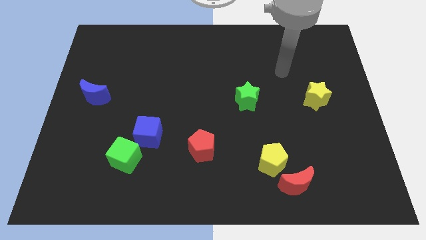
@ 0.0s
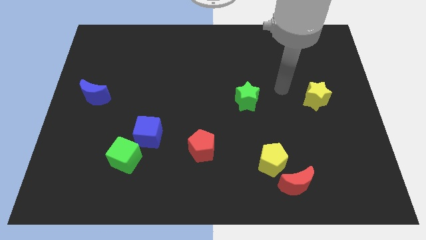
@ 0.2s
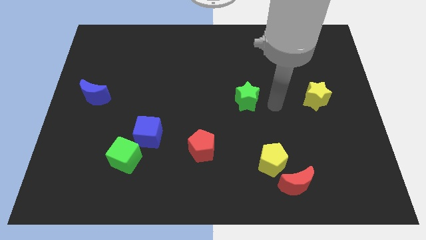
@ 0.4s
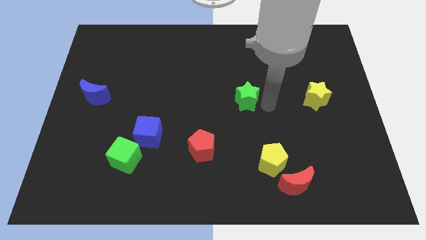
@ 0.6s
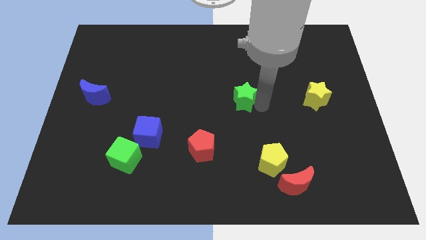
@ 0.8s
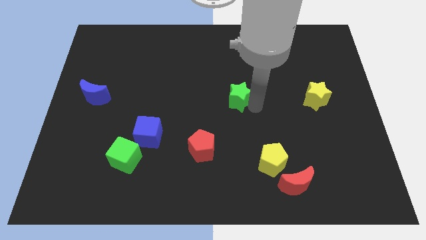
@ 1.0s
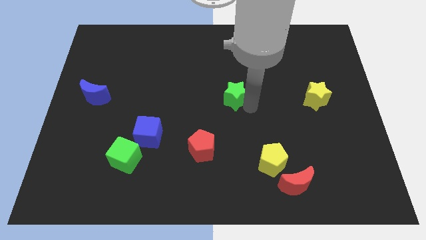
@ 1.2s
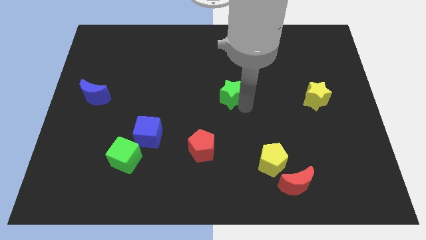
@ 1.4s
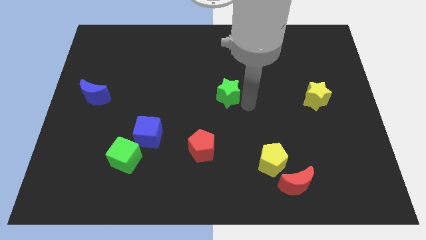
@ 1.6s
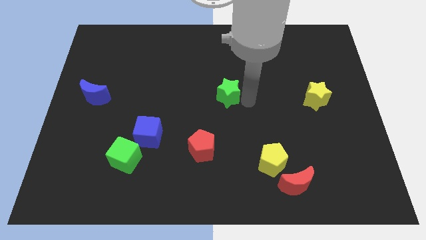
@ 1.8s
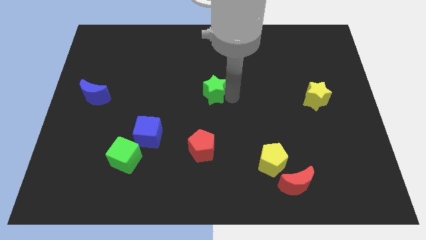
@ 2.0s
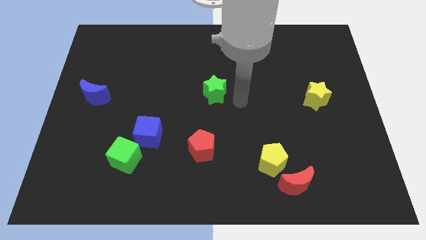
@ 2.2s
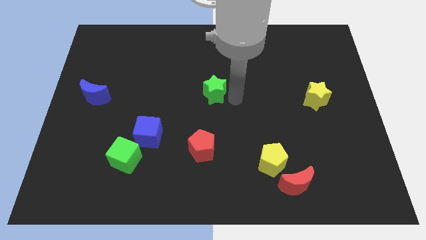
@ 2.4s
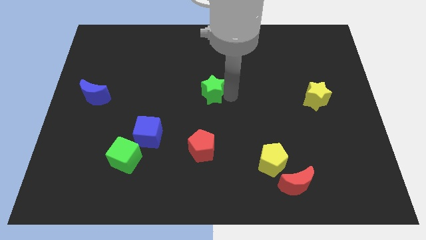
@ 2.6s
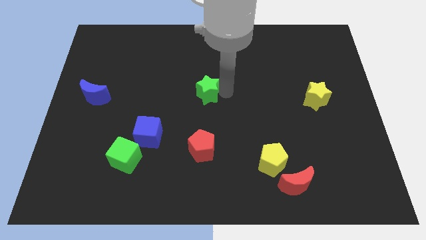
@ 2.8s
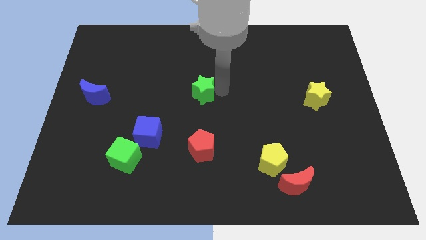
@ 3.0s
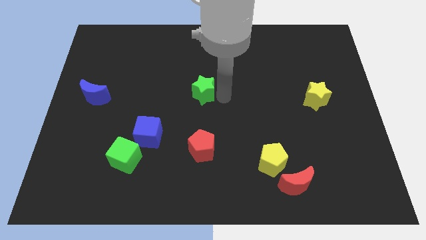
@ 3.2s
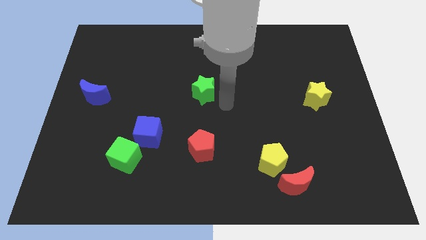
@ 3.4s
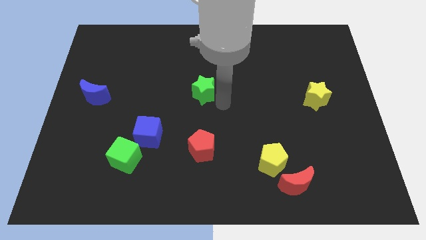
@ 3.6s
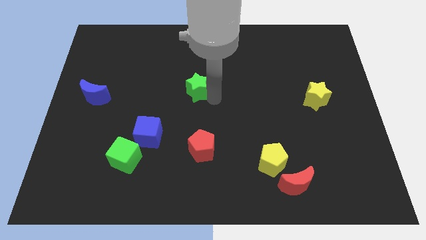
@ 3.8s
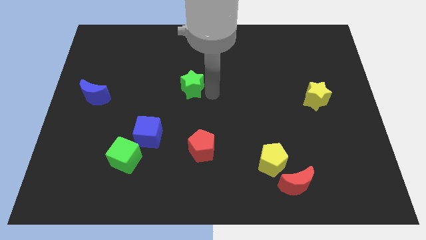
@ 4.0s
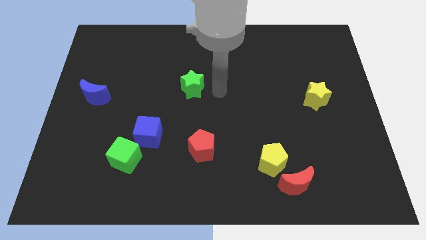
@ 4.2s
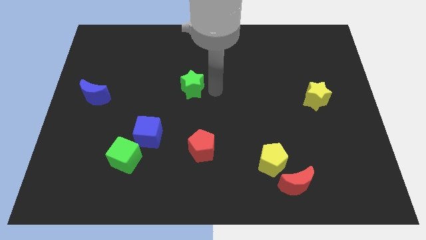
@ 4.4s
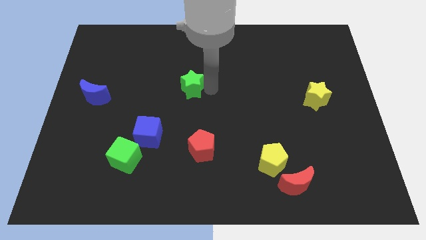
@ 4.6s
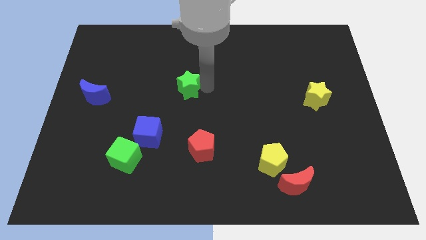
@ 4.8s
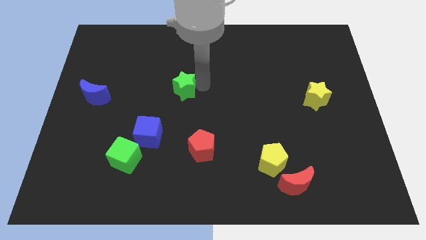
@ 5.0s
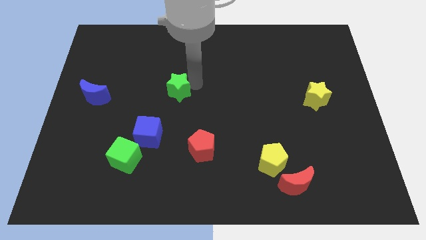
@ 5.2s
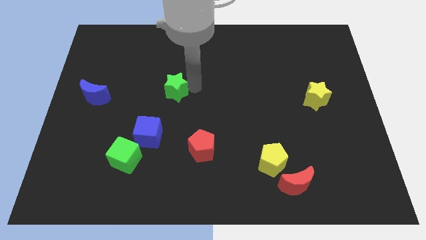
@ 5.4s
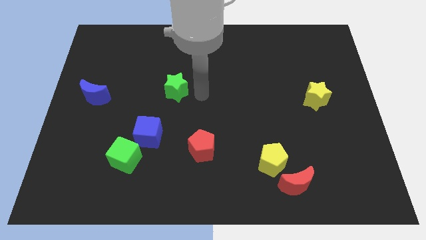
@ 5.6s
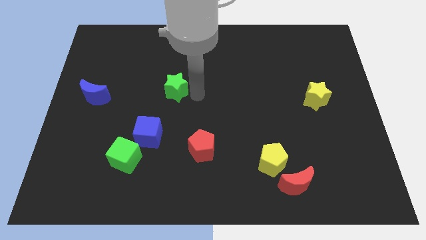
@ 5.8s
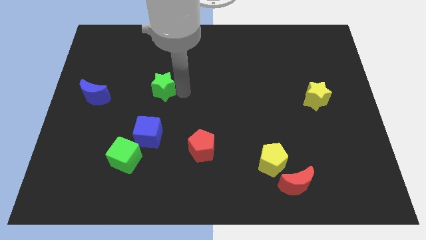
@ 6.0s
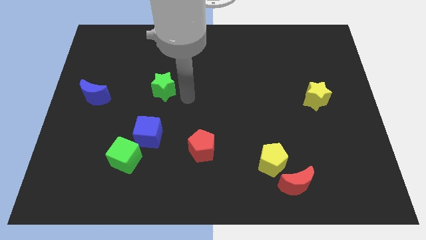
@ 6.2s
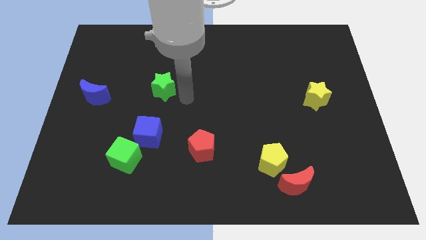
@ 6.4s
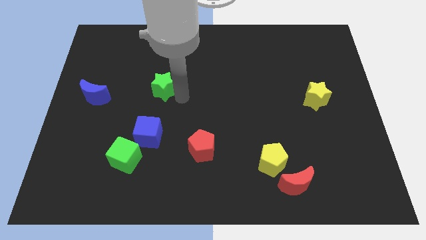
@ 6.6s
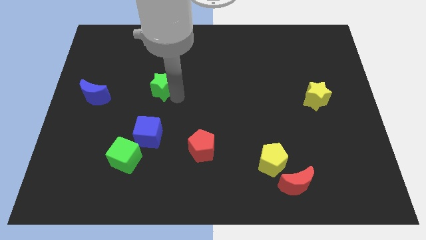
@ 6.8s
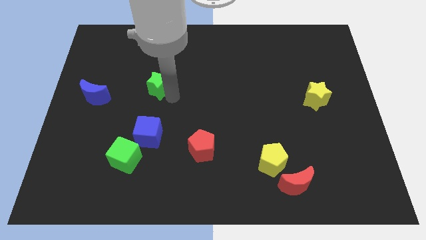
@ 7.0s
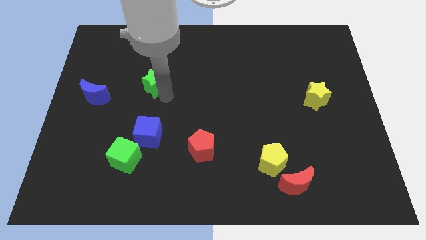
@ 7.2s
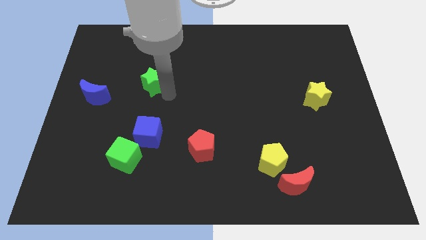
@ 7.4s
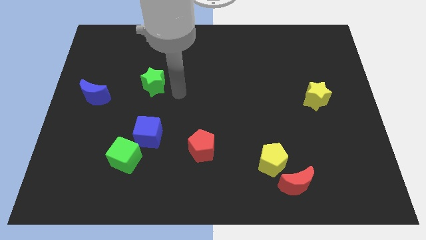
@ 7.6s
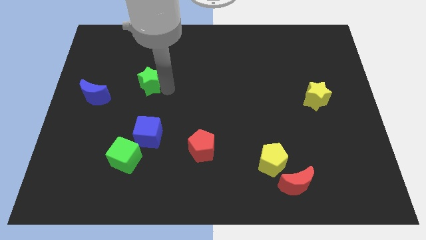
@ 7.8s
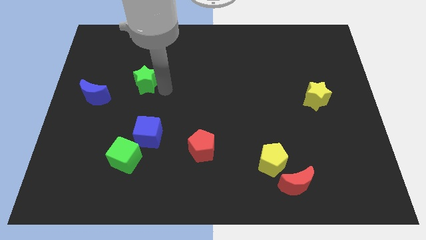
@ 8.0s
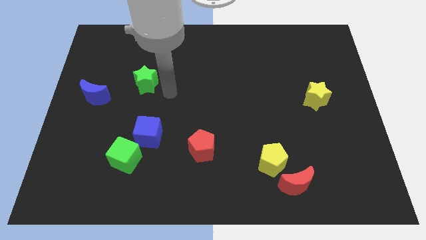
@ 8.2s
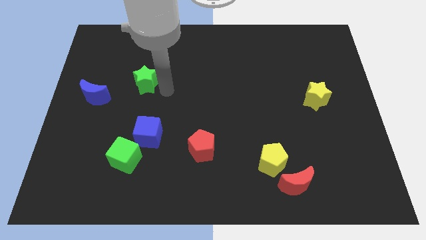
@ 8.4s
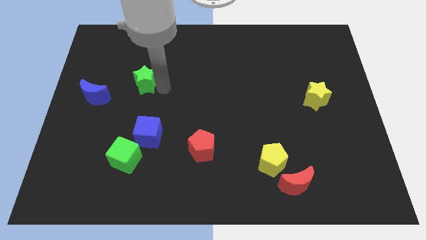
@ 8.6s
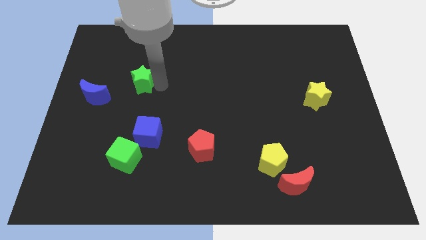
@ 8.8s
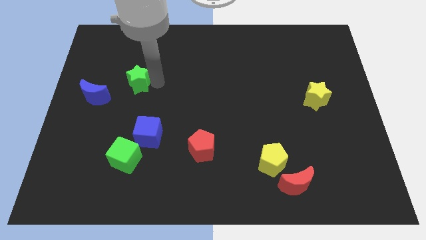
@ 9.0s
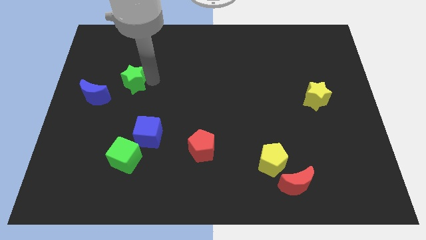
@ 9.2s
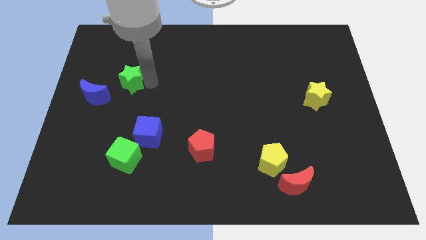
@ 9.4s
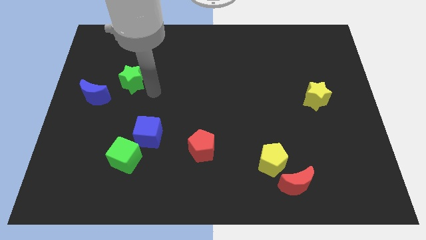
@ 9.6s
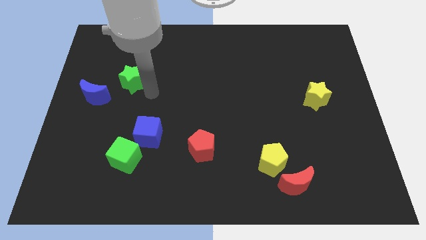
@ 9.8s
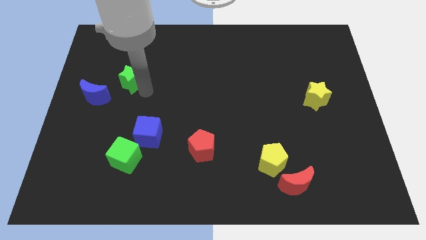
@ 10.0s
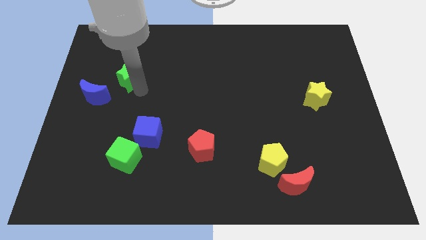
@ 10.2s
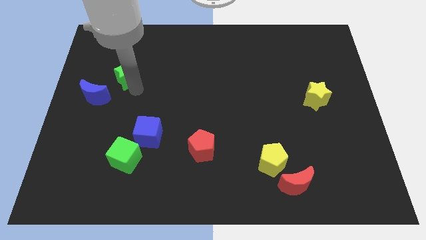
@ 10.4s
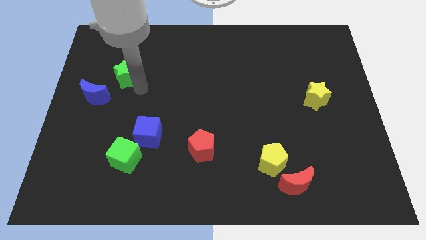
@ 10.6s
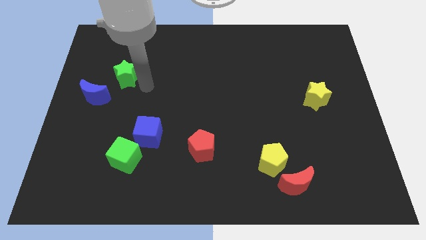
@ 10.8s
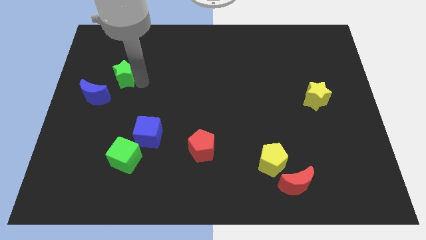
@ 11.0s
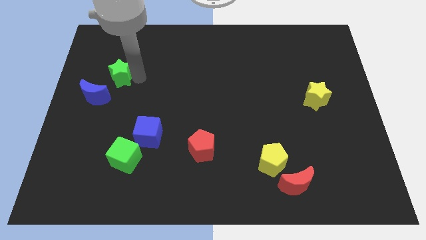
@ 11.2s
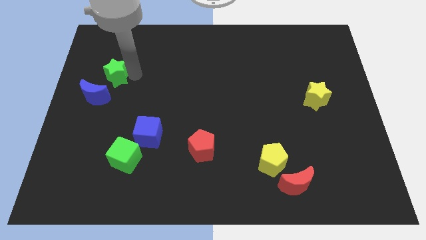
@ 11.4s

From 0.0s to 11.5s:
push the green star above the blue moon

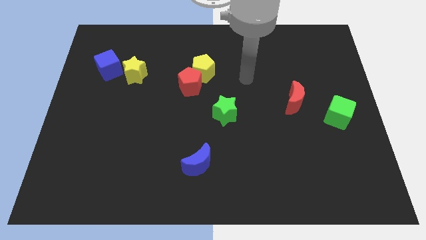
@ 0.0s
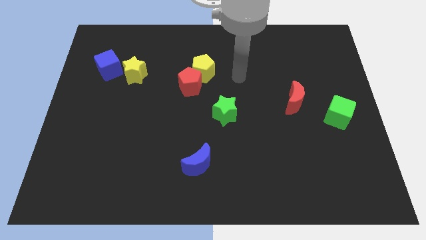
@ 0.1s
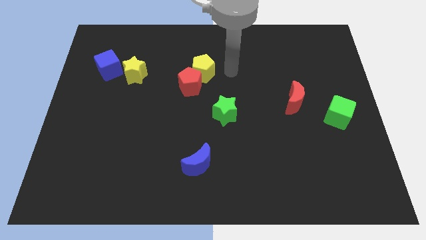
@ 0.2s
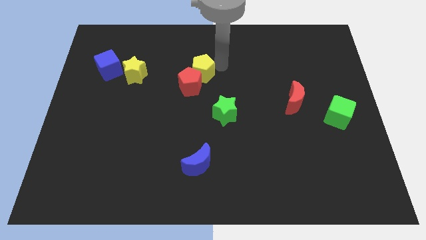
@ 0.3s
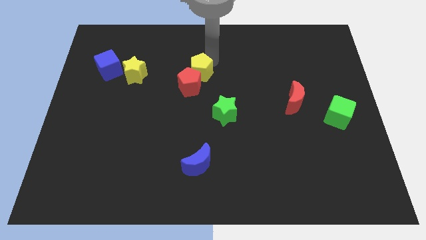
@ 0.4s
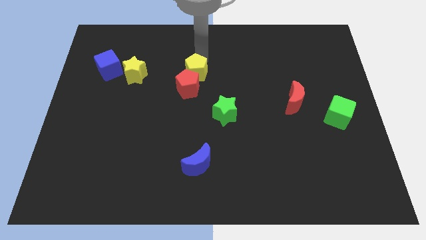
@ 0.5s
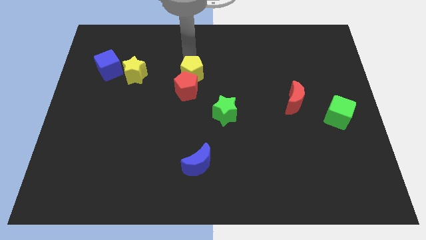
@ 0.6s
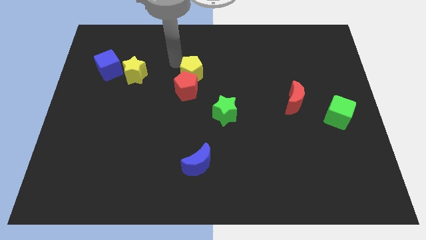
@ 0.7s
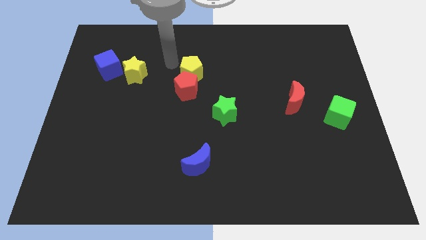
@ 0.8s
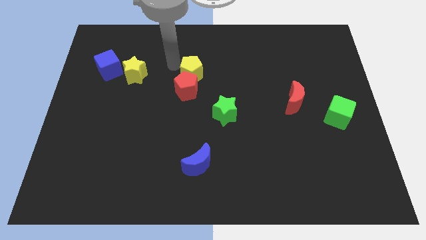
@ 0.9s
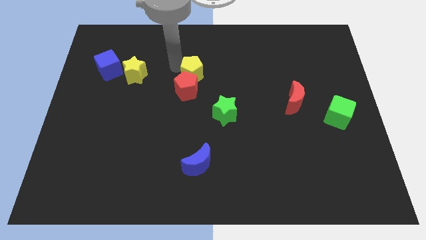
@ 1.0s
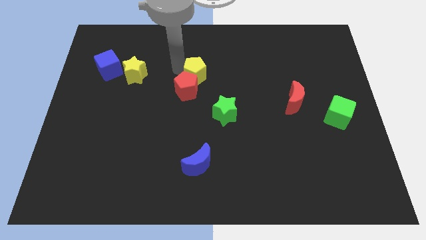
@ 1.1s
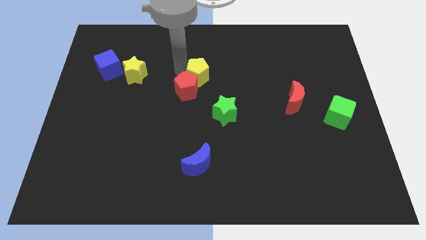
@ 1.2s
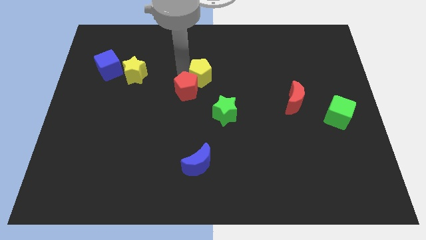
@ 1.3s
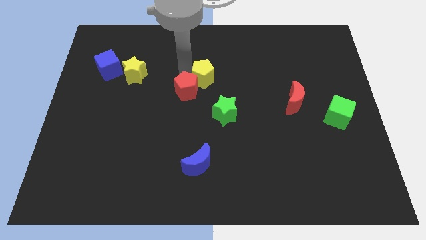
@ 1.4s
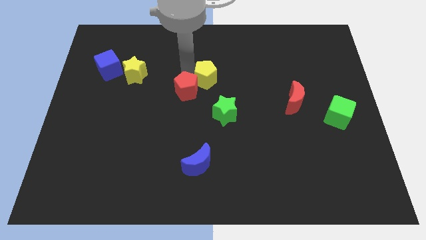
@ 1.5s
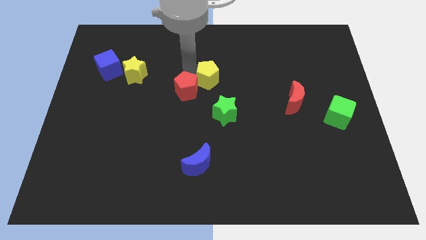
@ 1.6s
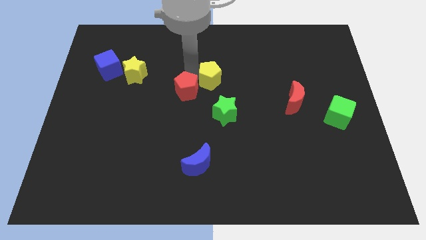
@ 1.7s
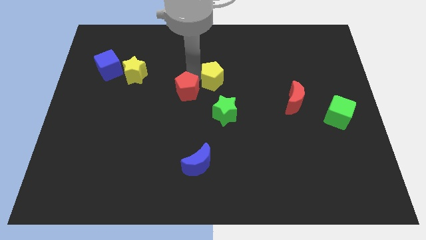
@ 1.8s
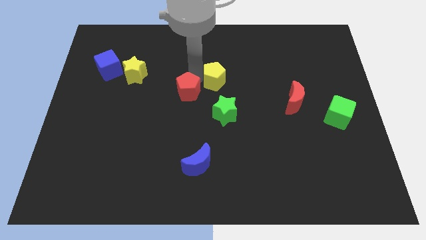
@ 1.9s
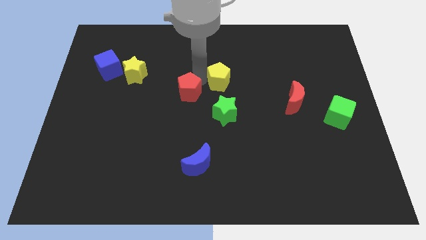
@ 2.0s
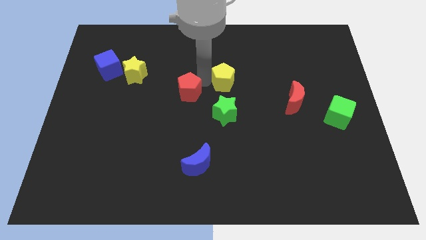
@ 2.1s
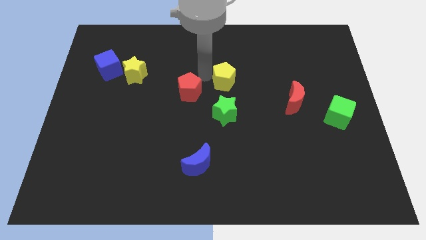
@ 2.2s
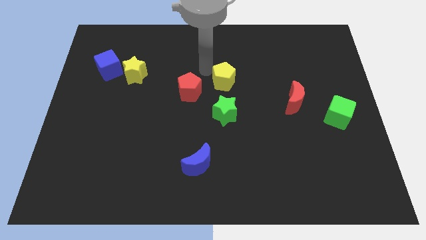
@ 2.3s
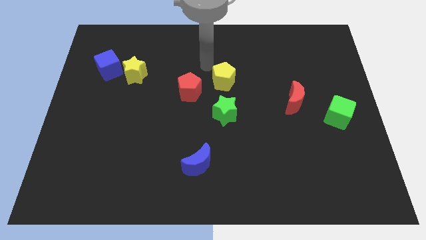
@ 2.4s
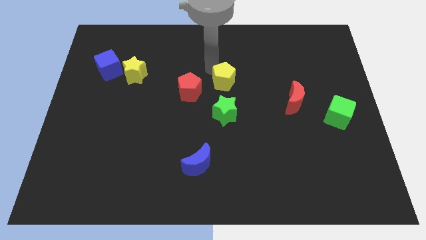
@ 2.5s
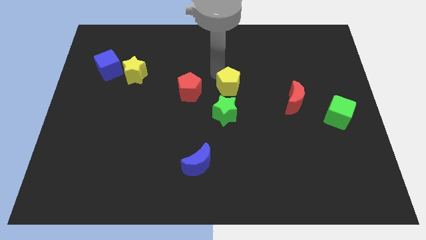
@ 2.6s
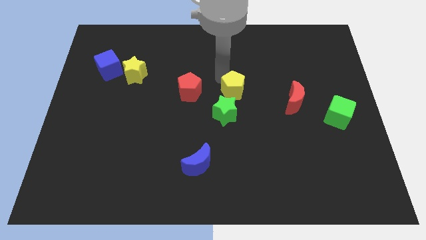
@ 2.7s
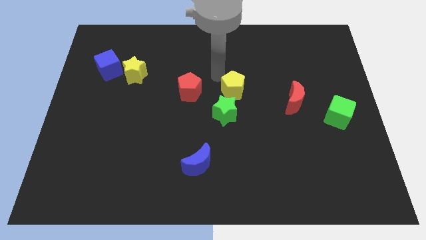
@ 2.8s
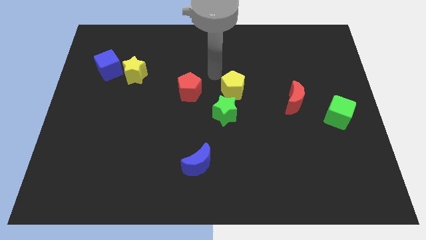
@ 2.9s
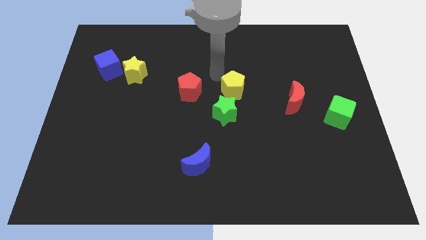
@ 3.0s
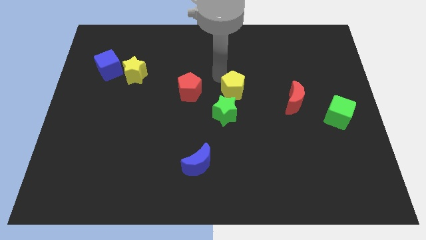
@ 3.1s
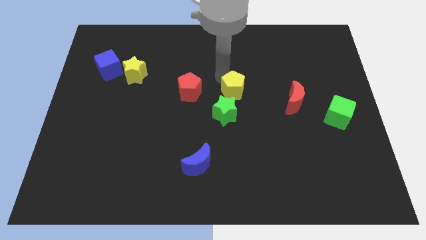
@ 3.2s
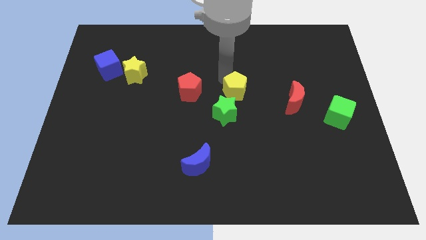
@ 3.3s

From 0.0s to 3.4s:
slide the yellow pentagon to the left side of the red moon
